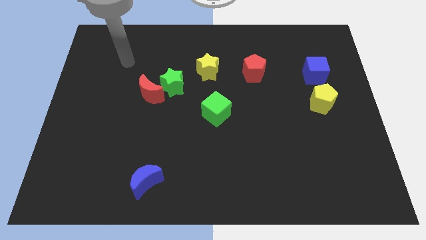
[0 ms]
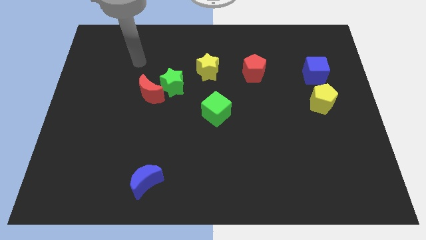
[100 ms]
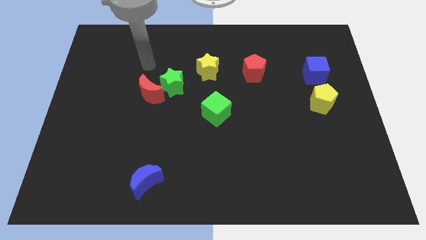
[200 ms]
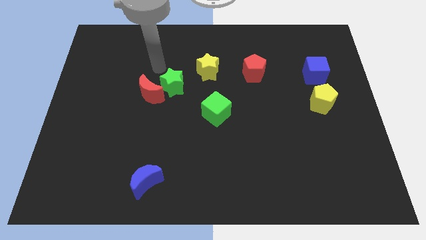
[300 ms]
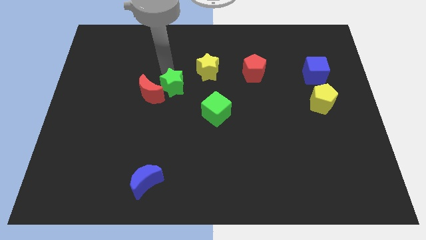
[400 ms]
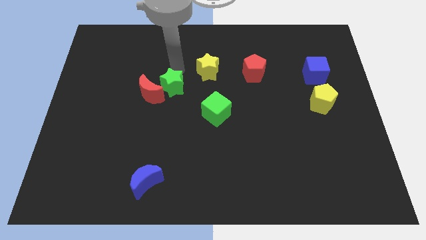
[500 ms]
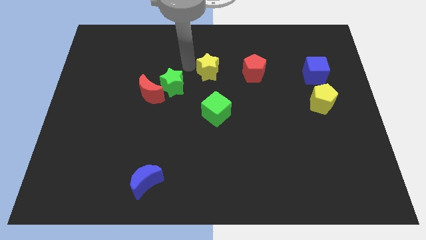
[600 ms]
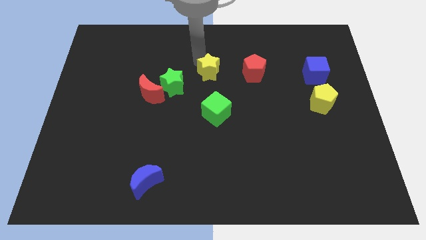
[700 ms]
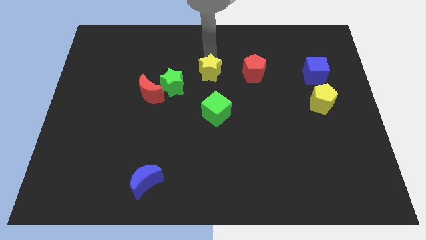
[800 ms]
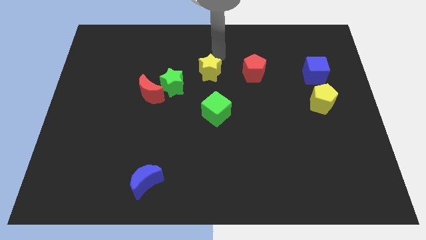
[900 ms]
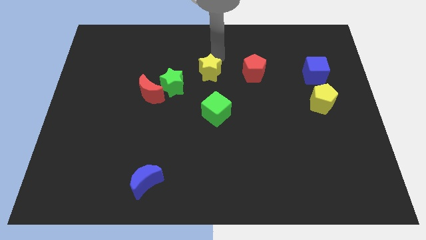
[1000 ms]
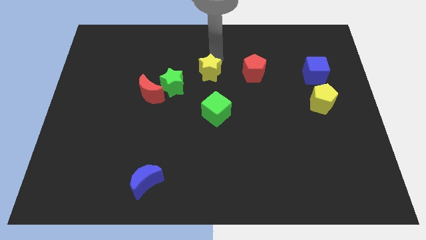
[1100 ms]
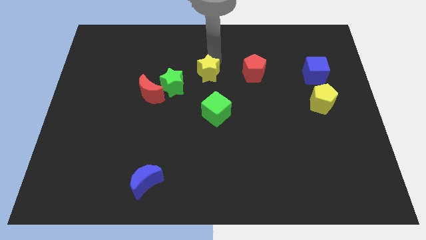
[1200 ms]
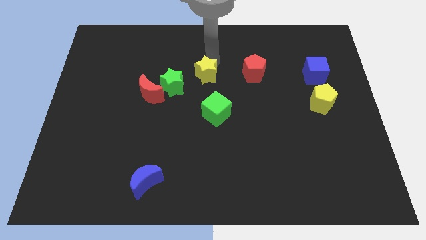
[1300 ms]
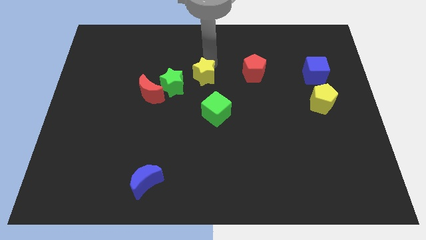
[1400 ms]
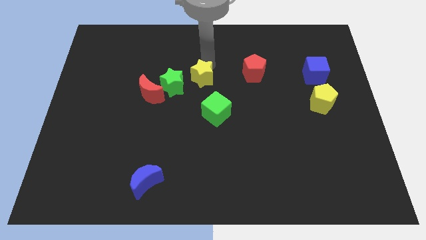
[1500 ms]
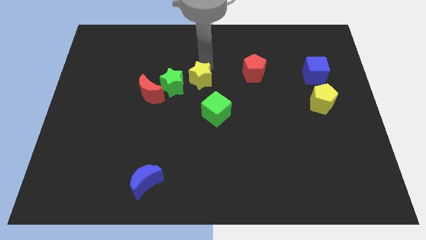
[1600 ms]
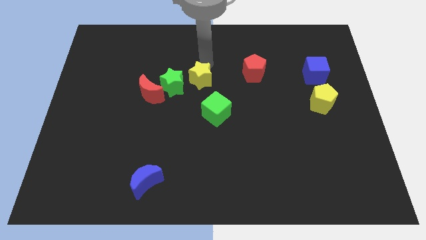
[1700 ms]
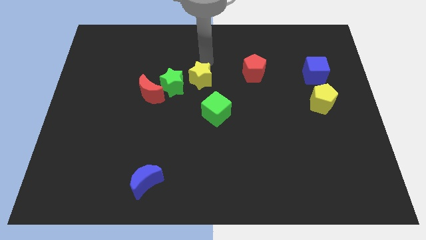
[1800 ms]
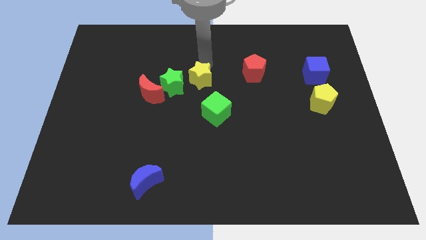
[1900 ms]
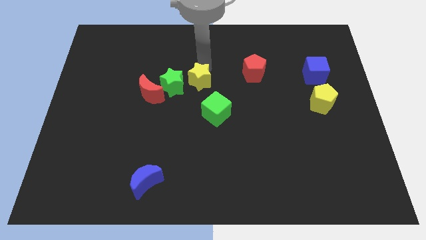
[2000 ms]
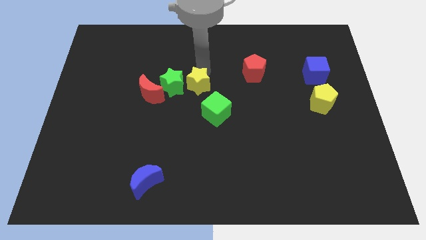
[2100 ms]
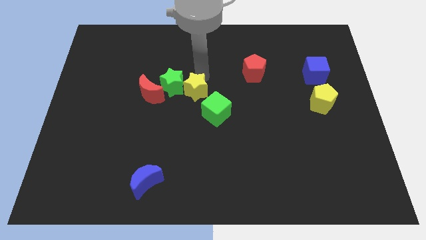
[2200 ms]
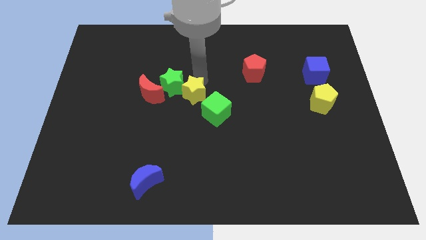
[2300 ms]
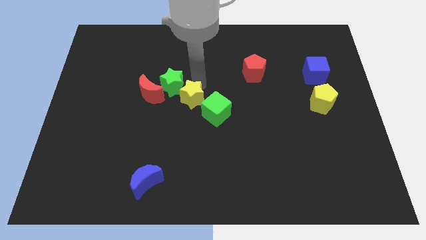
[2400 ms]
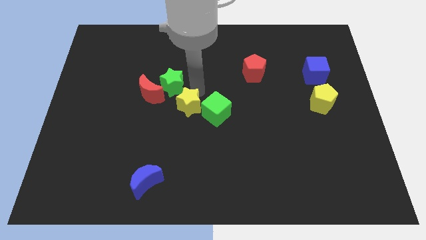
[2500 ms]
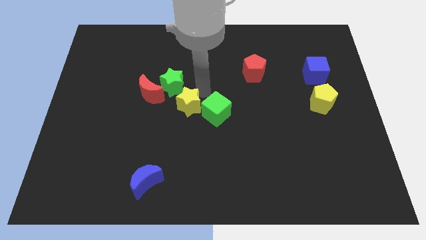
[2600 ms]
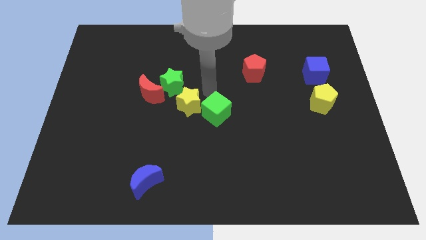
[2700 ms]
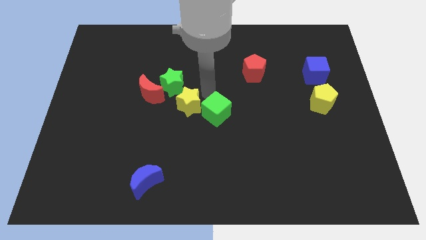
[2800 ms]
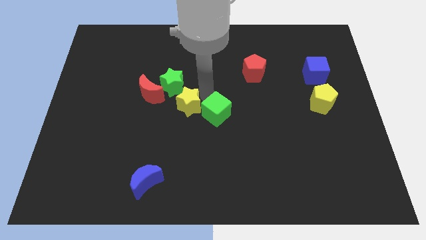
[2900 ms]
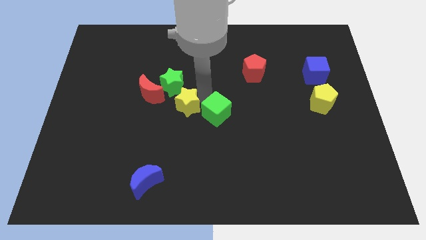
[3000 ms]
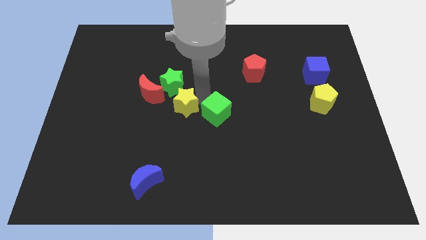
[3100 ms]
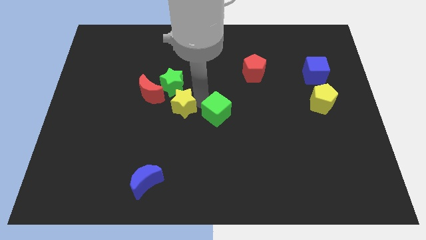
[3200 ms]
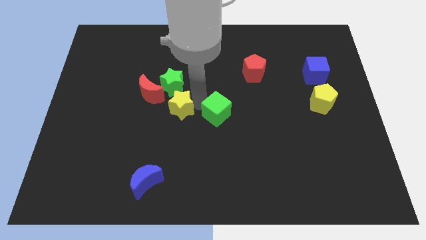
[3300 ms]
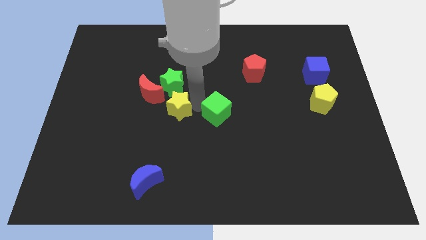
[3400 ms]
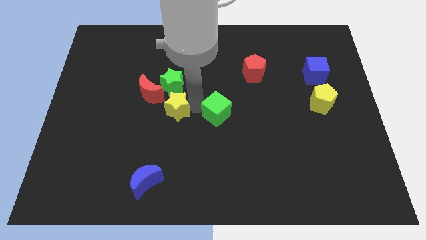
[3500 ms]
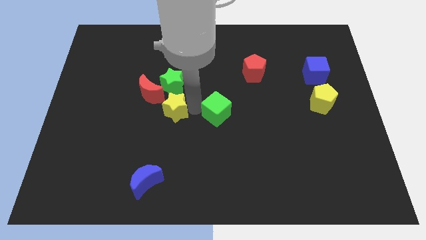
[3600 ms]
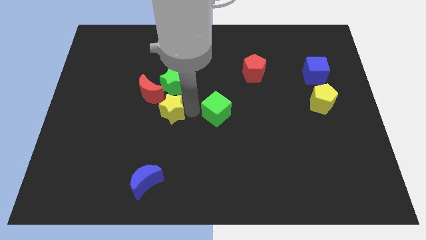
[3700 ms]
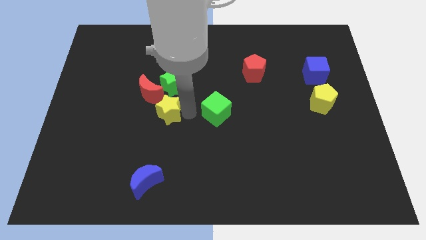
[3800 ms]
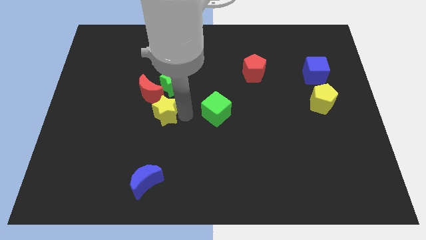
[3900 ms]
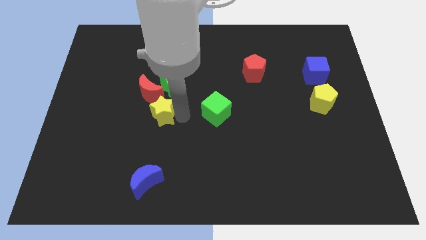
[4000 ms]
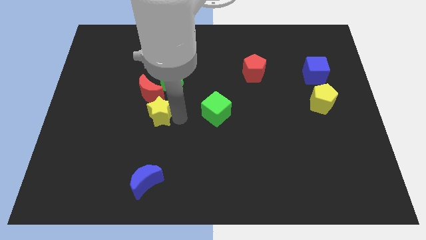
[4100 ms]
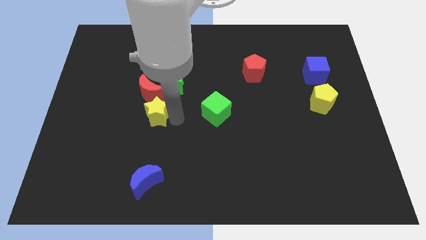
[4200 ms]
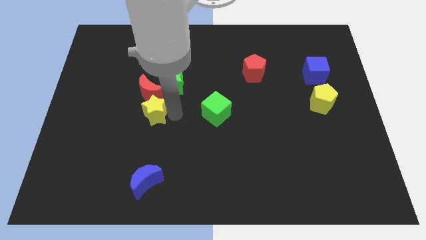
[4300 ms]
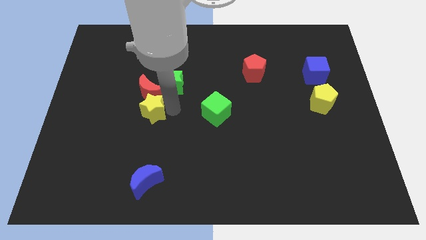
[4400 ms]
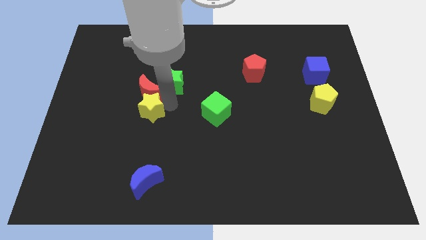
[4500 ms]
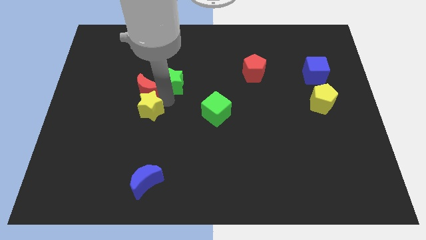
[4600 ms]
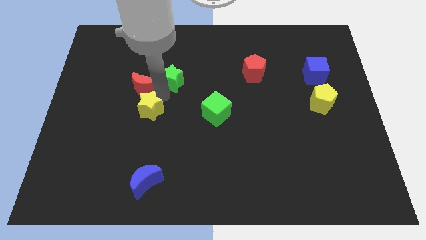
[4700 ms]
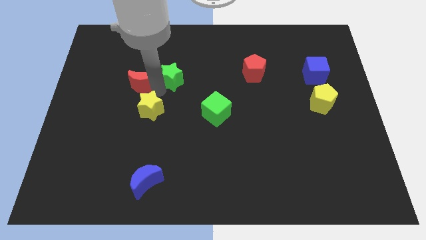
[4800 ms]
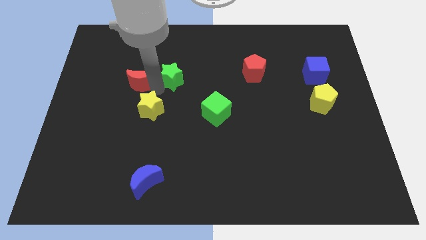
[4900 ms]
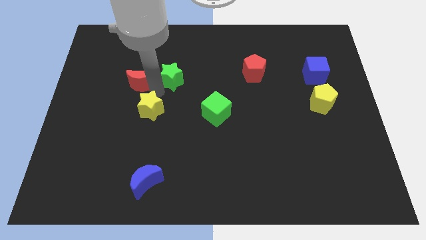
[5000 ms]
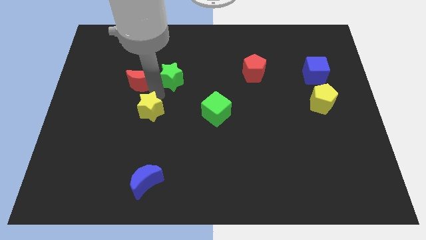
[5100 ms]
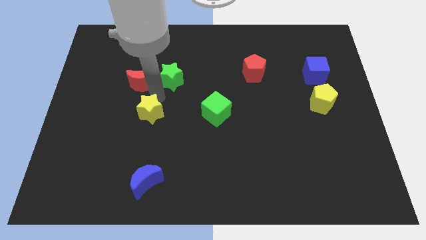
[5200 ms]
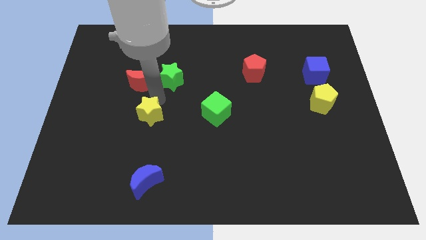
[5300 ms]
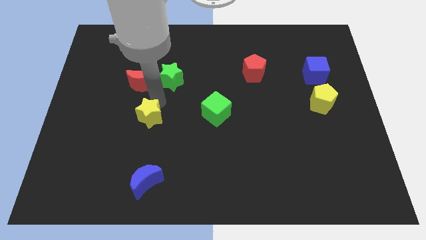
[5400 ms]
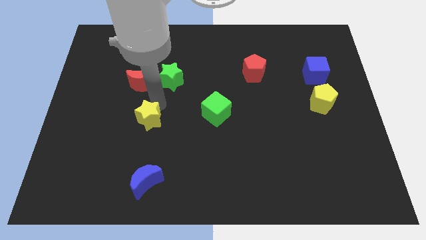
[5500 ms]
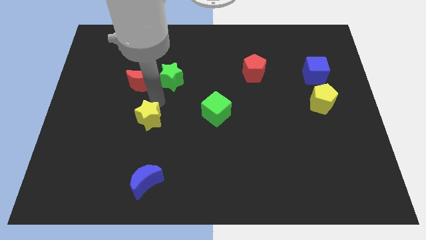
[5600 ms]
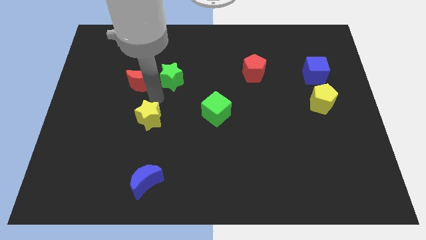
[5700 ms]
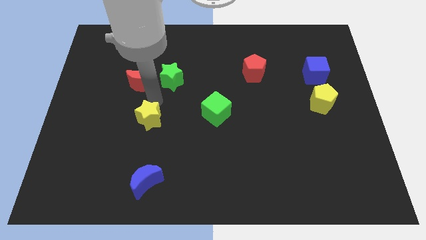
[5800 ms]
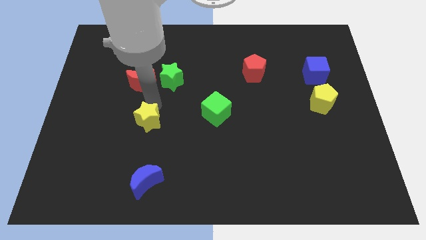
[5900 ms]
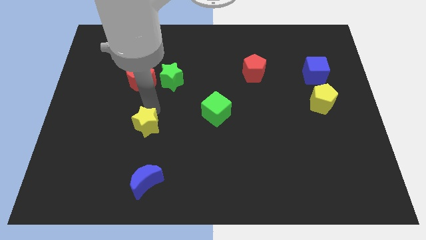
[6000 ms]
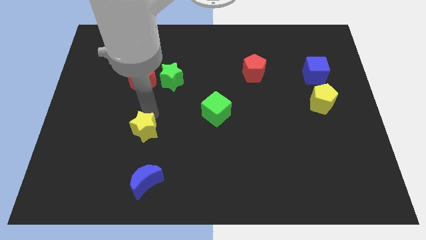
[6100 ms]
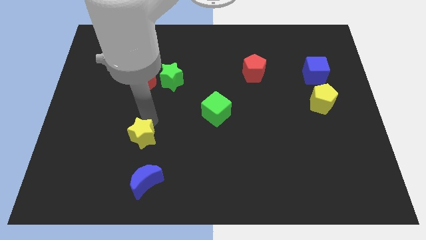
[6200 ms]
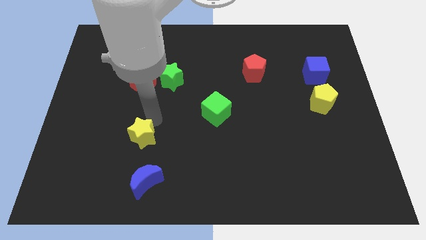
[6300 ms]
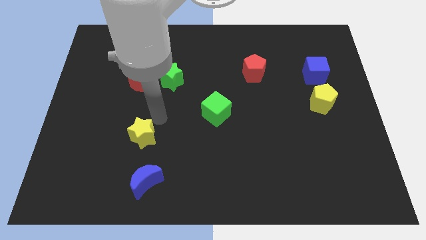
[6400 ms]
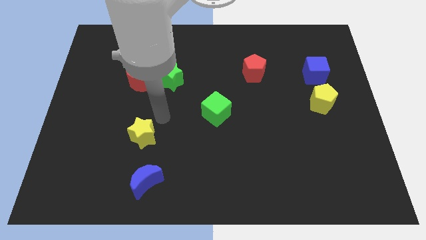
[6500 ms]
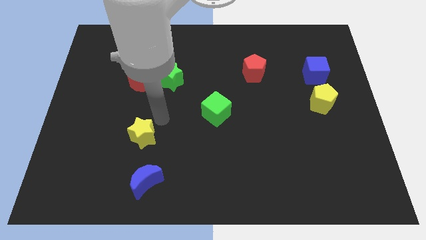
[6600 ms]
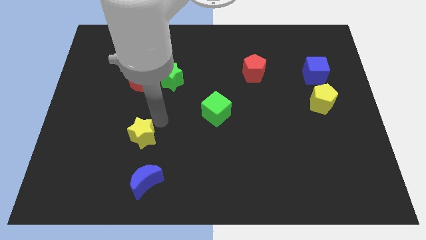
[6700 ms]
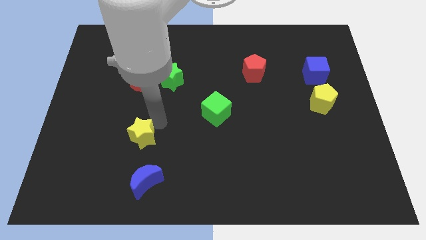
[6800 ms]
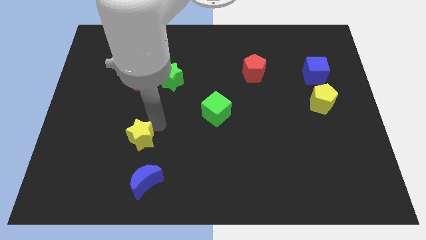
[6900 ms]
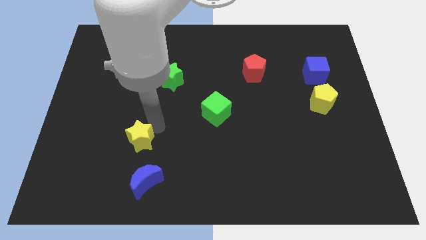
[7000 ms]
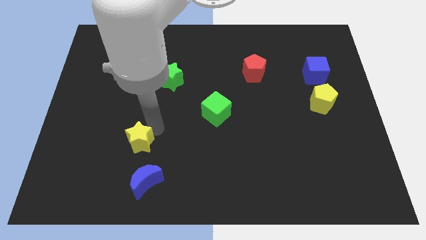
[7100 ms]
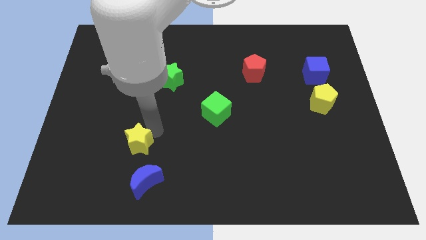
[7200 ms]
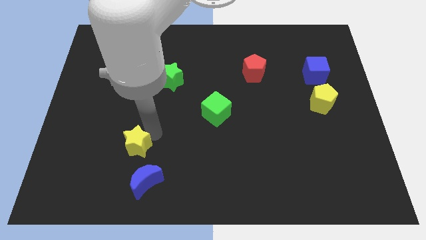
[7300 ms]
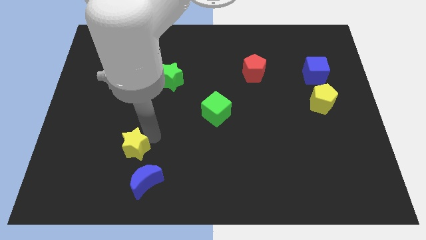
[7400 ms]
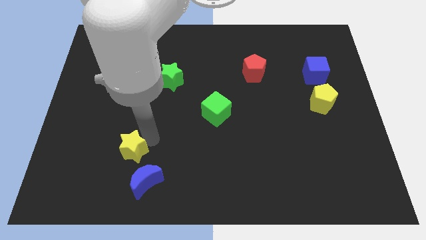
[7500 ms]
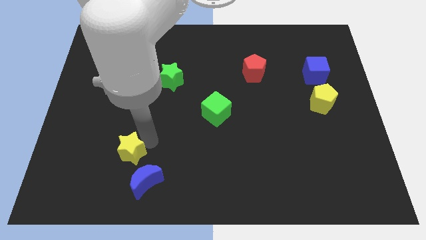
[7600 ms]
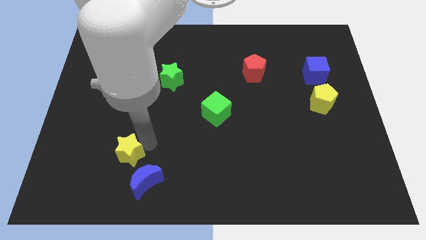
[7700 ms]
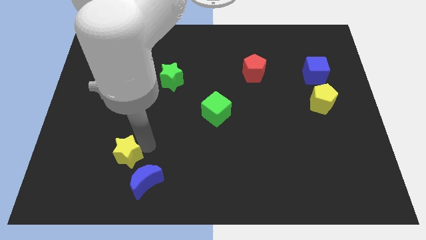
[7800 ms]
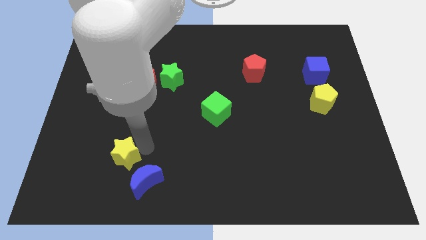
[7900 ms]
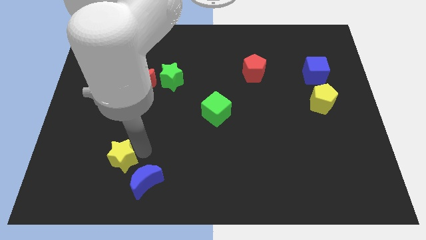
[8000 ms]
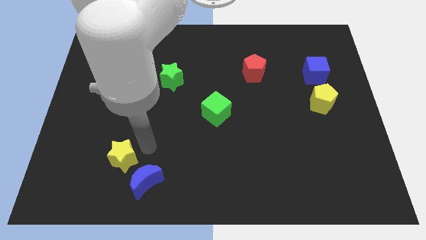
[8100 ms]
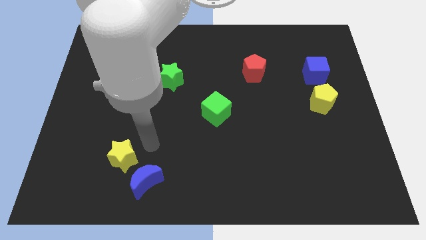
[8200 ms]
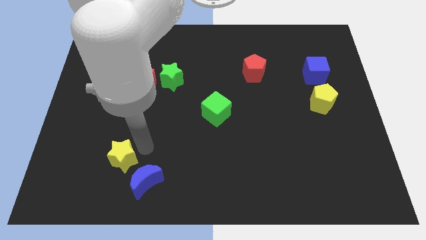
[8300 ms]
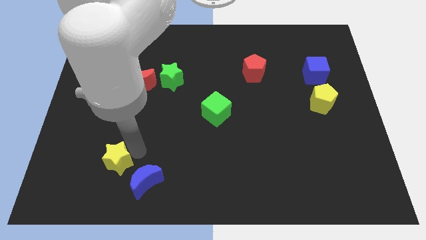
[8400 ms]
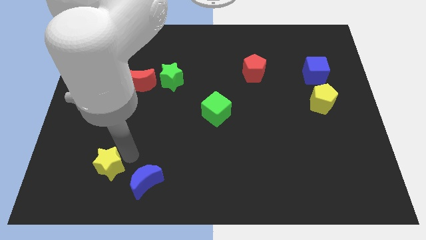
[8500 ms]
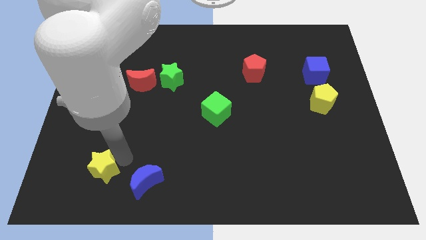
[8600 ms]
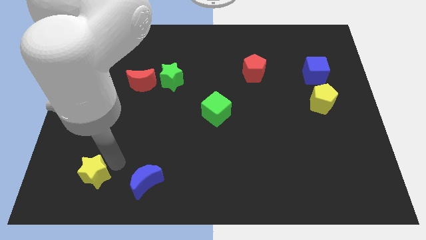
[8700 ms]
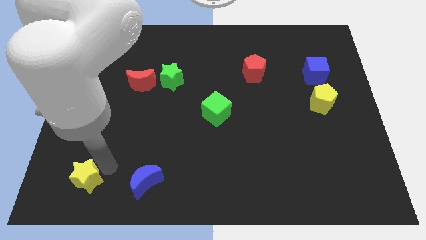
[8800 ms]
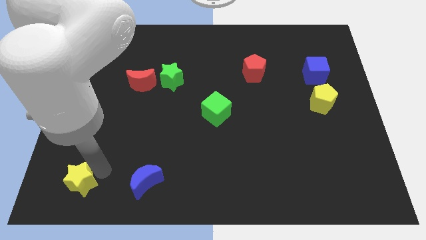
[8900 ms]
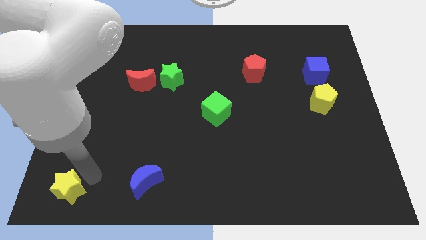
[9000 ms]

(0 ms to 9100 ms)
push the yellow star to the bottom left
